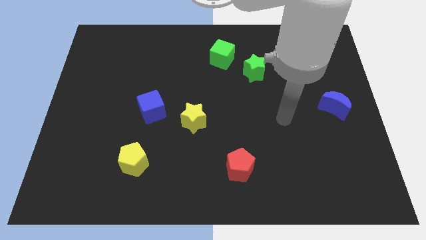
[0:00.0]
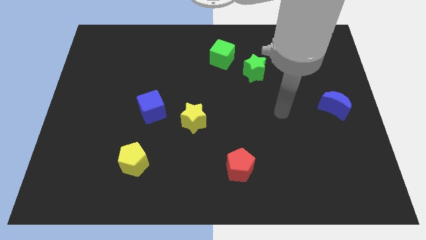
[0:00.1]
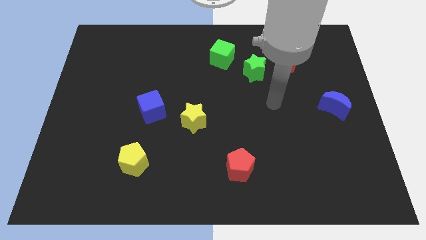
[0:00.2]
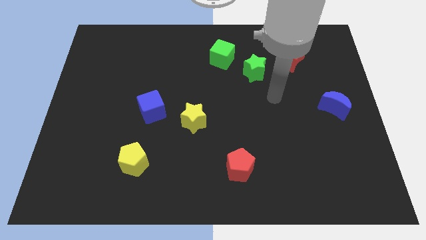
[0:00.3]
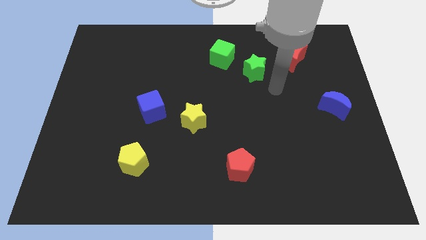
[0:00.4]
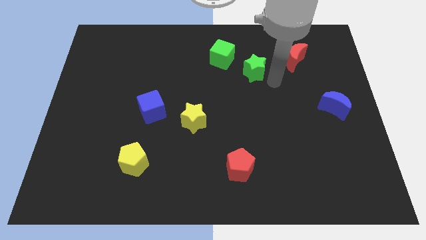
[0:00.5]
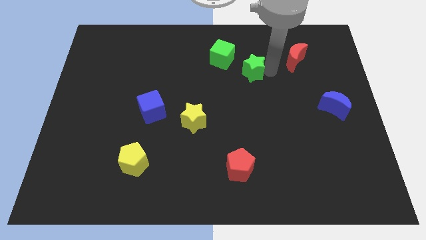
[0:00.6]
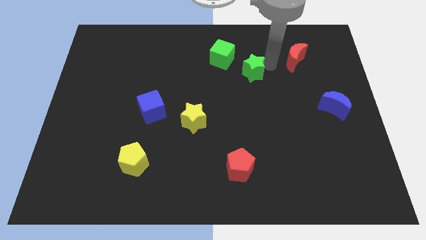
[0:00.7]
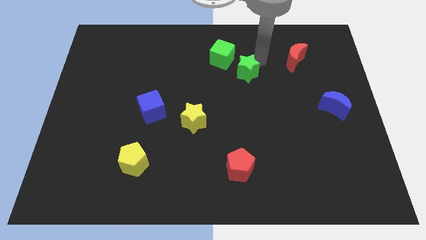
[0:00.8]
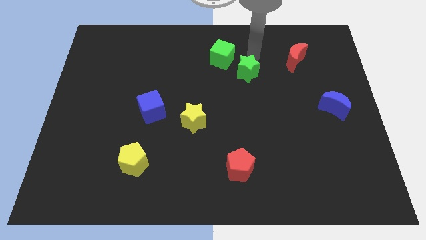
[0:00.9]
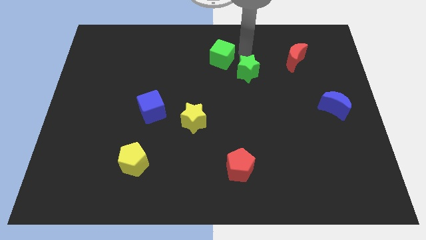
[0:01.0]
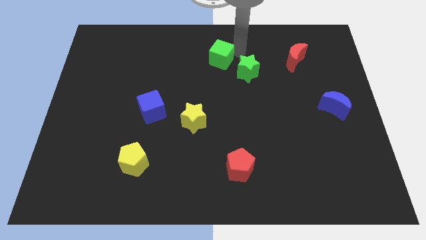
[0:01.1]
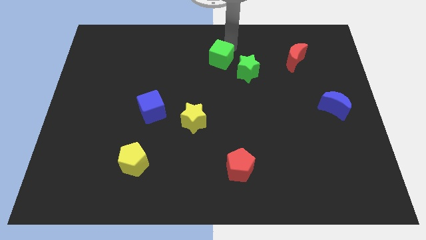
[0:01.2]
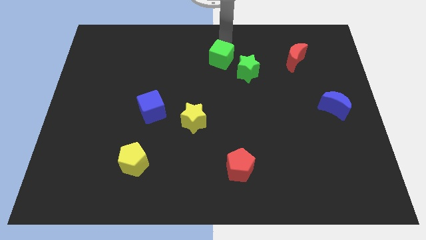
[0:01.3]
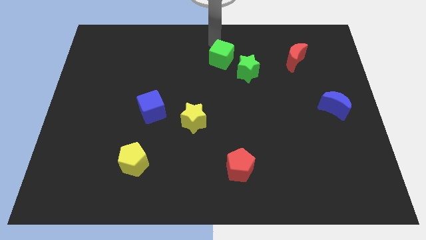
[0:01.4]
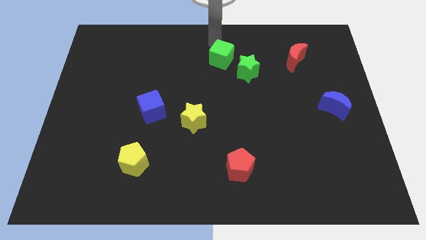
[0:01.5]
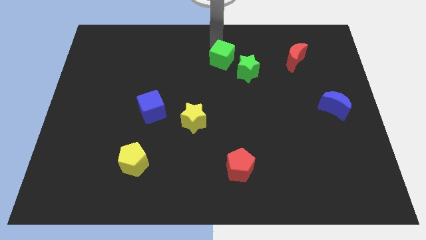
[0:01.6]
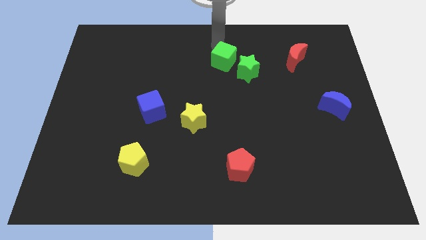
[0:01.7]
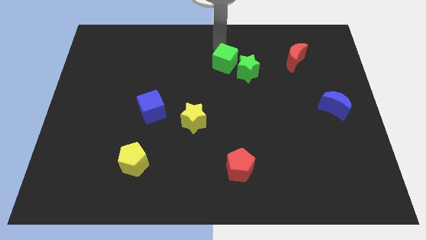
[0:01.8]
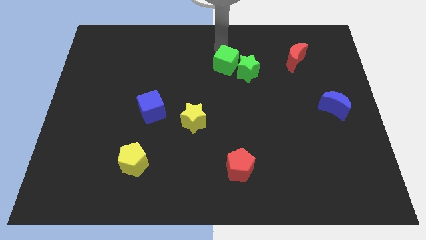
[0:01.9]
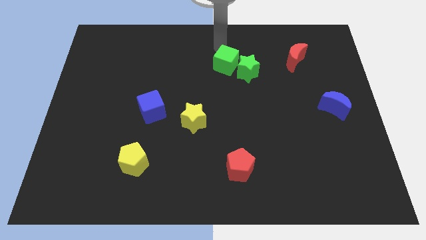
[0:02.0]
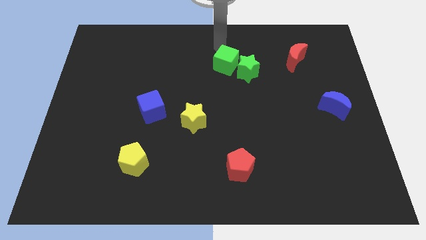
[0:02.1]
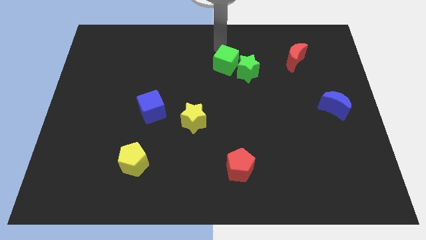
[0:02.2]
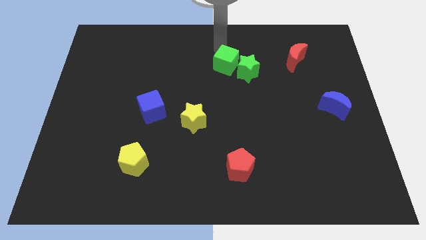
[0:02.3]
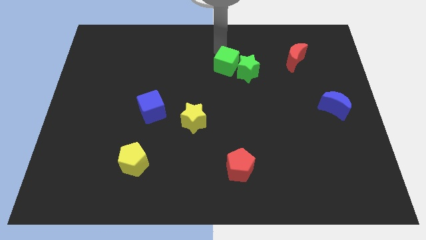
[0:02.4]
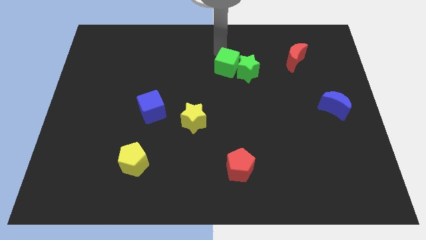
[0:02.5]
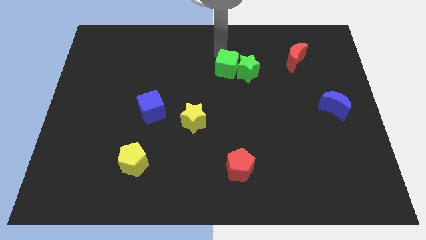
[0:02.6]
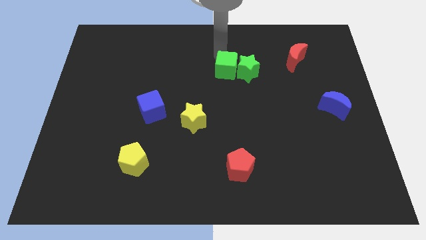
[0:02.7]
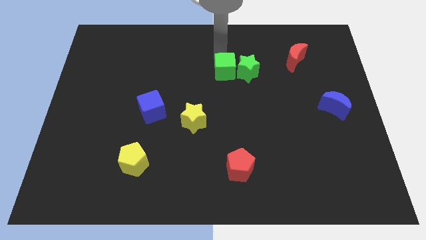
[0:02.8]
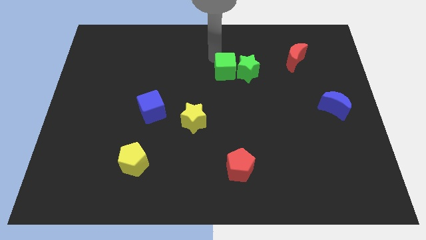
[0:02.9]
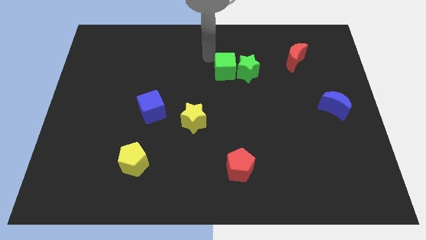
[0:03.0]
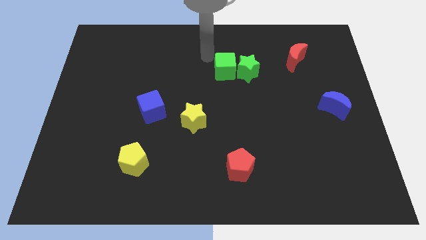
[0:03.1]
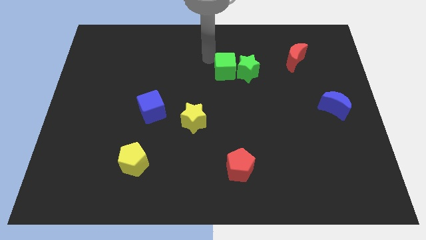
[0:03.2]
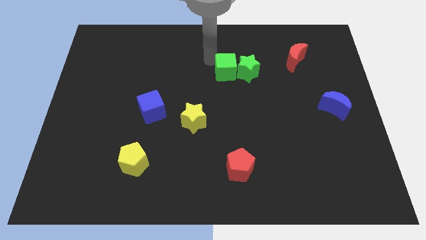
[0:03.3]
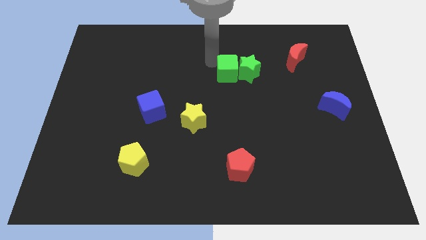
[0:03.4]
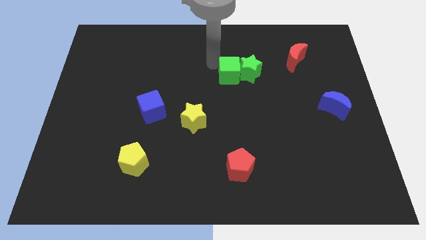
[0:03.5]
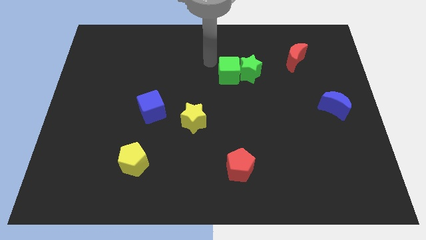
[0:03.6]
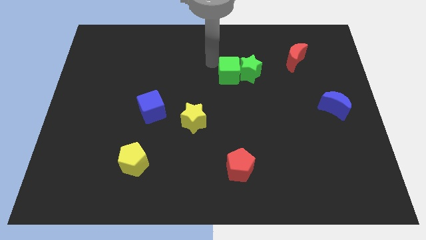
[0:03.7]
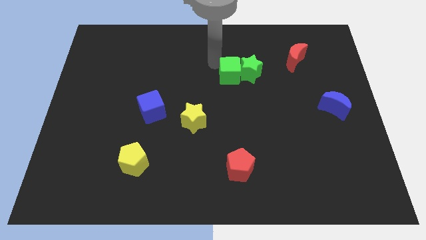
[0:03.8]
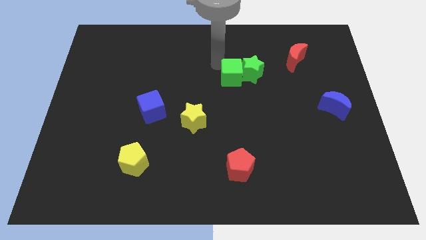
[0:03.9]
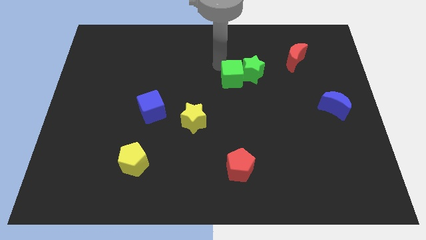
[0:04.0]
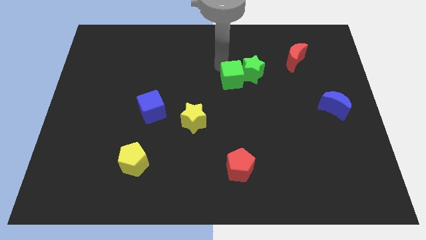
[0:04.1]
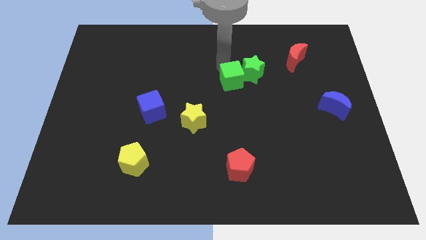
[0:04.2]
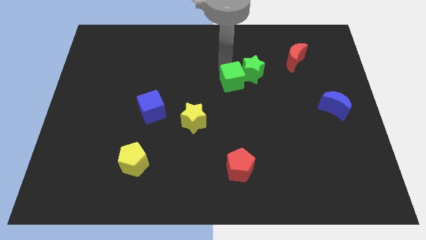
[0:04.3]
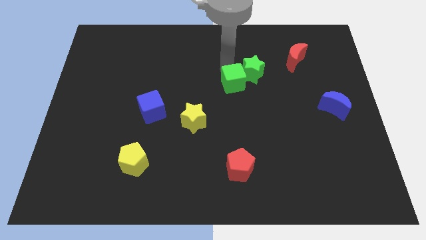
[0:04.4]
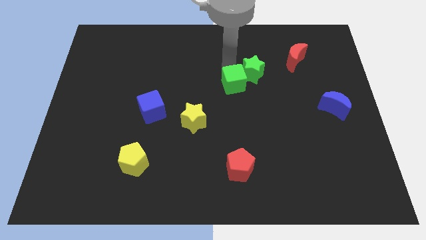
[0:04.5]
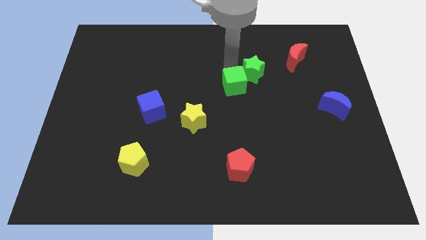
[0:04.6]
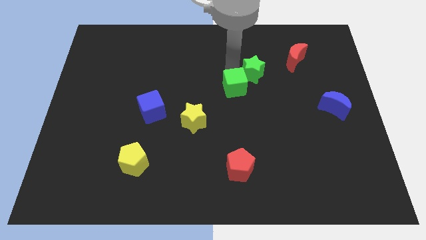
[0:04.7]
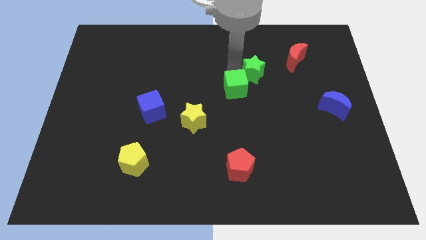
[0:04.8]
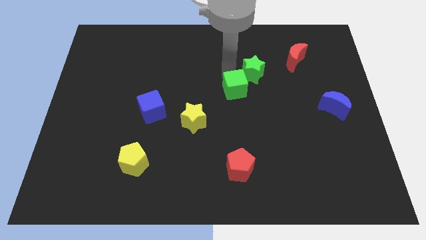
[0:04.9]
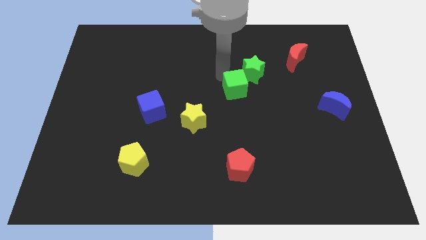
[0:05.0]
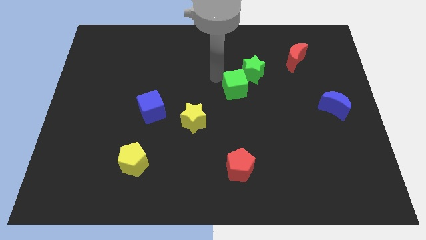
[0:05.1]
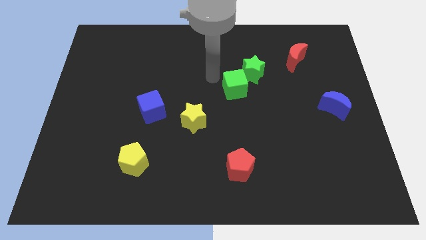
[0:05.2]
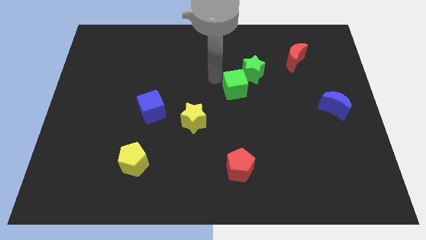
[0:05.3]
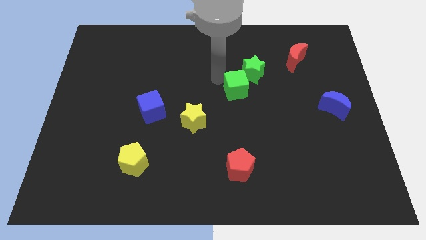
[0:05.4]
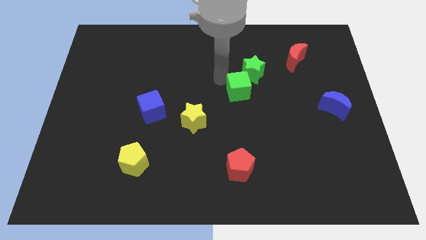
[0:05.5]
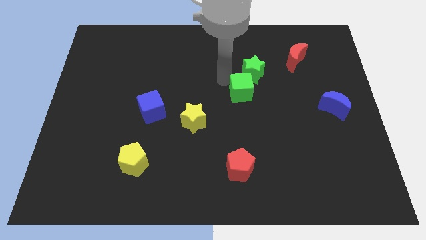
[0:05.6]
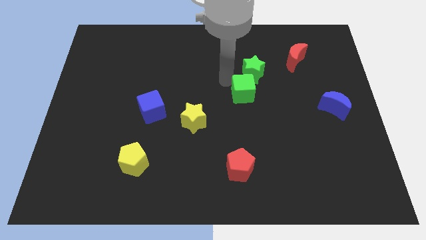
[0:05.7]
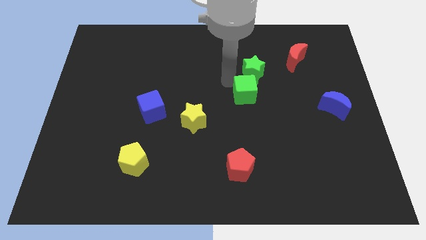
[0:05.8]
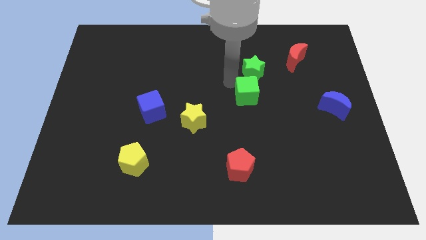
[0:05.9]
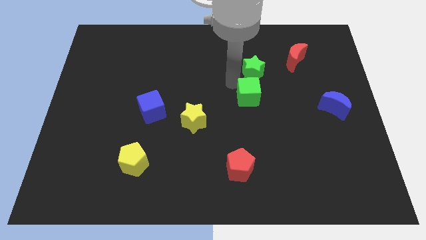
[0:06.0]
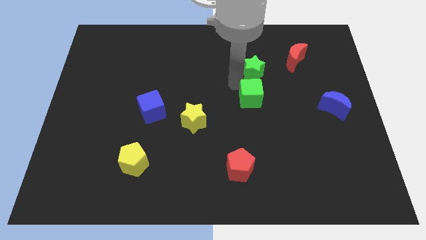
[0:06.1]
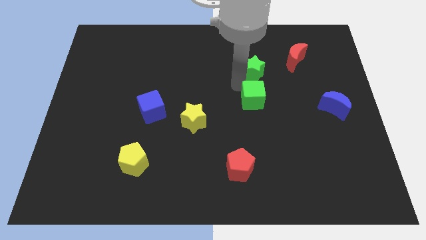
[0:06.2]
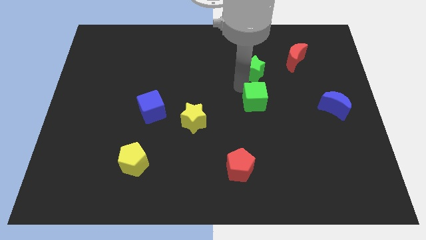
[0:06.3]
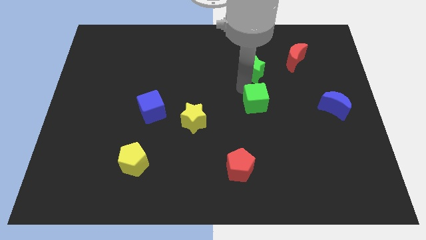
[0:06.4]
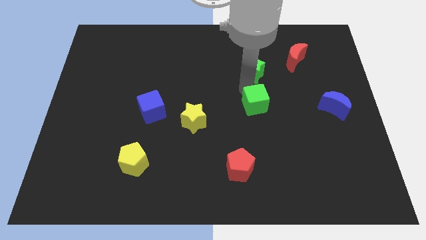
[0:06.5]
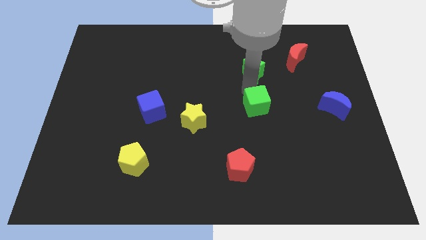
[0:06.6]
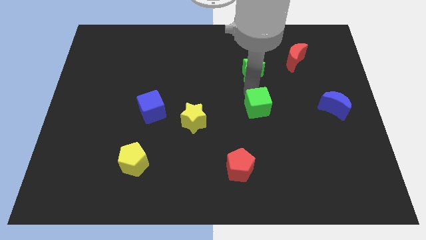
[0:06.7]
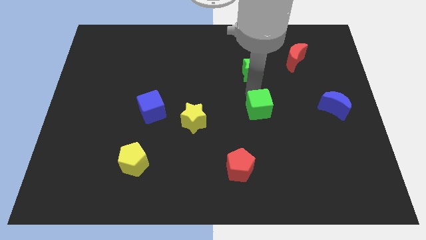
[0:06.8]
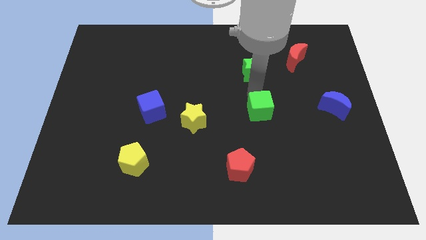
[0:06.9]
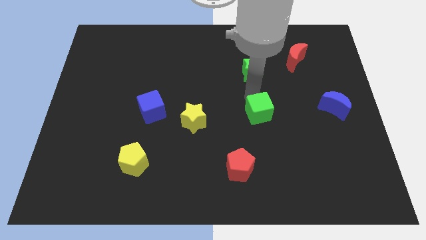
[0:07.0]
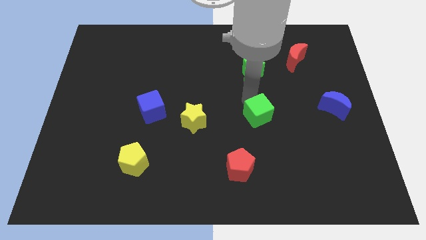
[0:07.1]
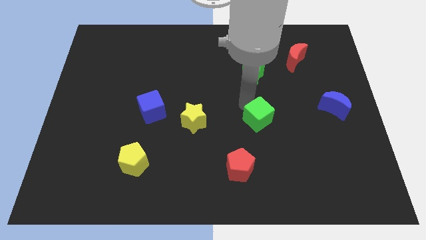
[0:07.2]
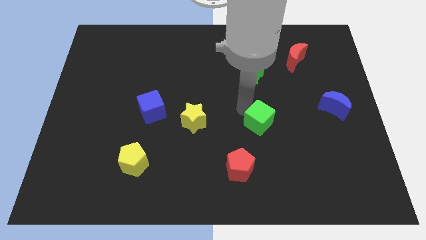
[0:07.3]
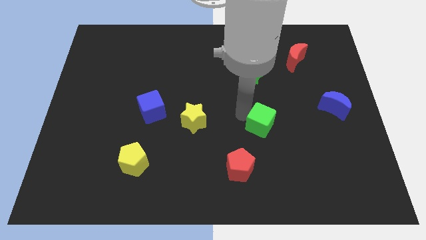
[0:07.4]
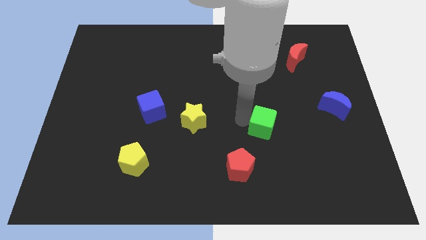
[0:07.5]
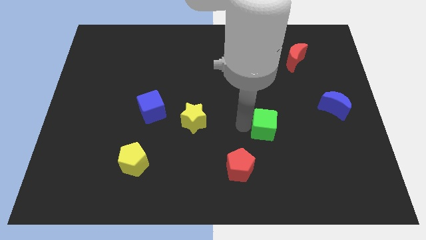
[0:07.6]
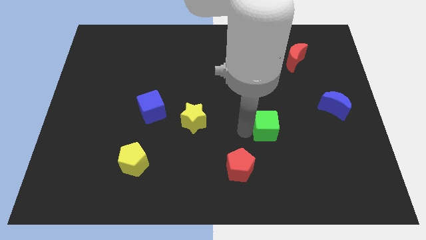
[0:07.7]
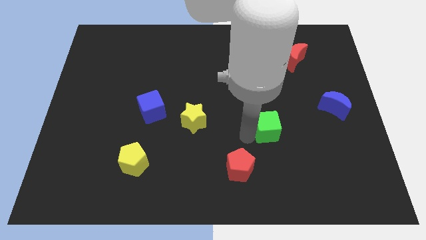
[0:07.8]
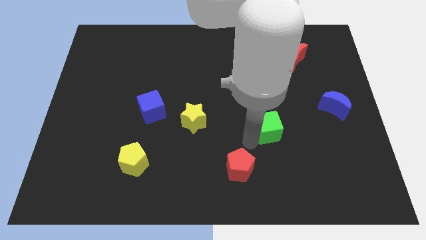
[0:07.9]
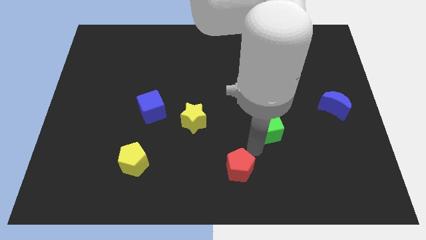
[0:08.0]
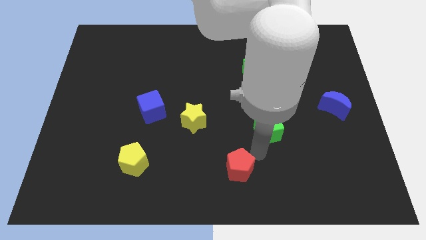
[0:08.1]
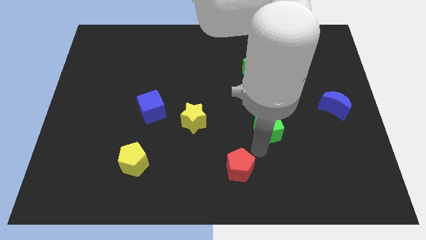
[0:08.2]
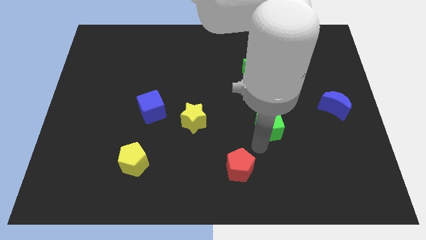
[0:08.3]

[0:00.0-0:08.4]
slide the green cube downwards and right
